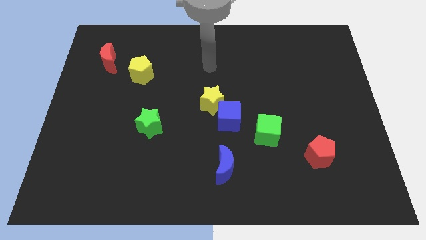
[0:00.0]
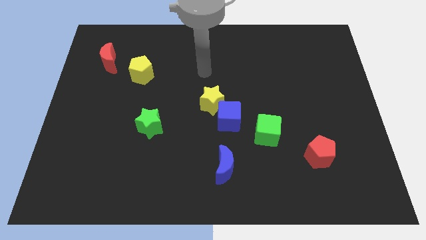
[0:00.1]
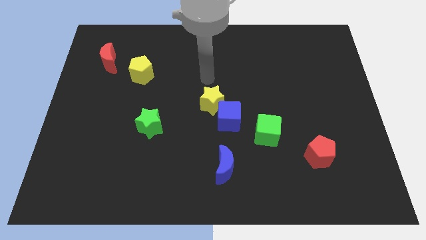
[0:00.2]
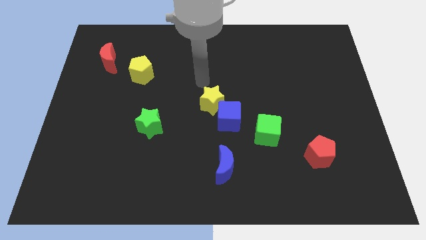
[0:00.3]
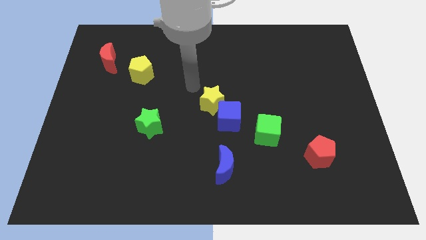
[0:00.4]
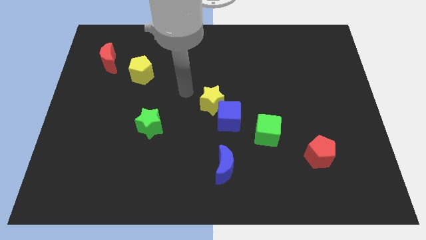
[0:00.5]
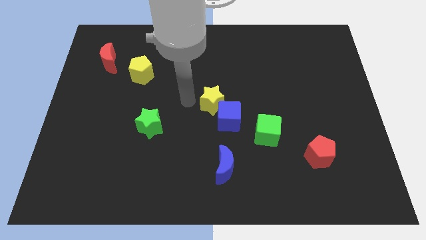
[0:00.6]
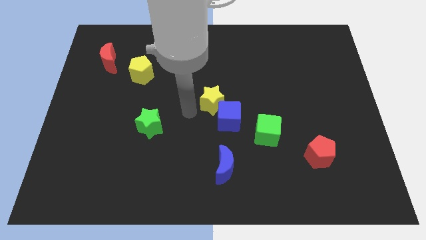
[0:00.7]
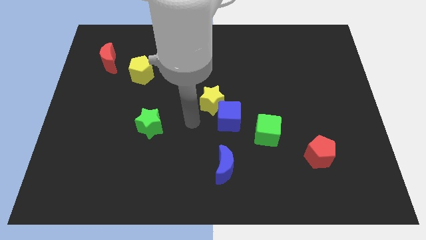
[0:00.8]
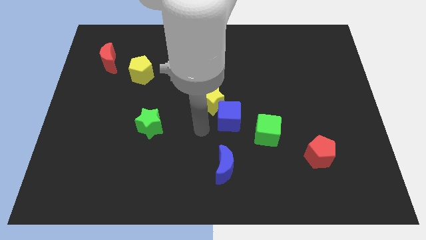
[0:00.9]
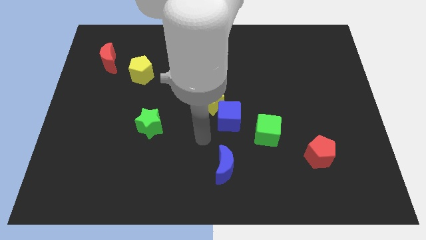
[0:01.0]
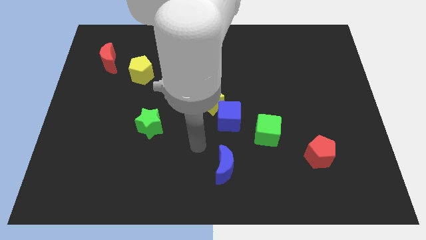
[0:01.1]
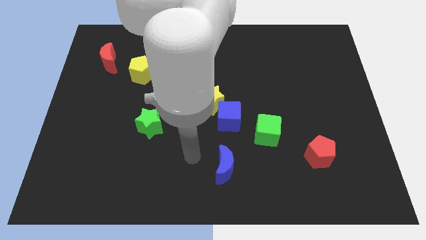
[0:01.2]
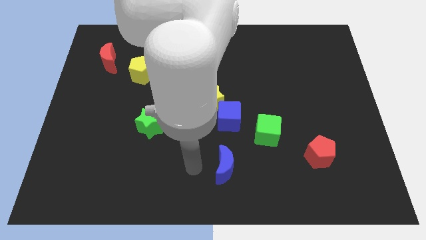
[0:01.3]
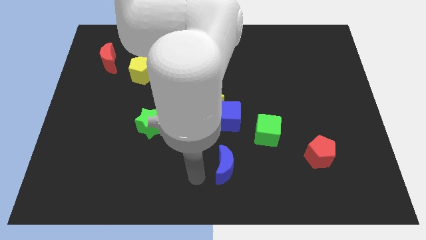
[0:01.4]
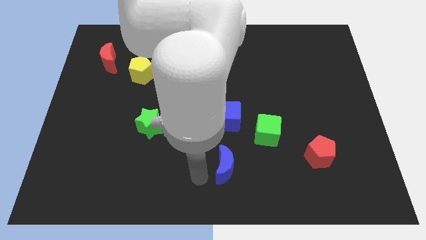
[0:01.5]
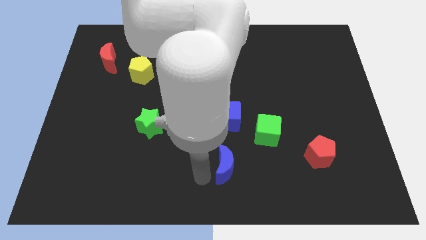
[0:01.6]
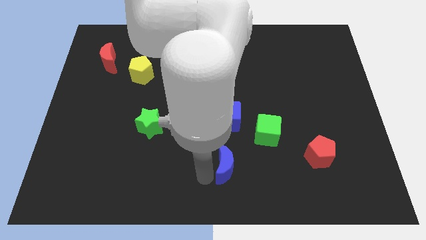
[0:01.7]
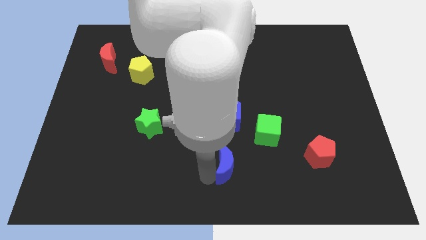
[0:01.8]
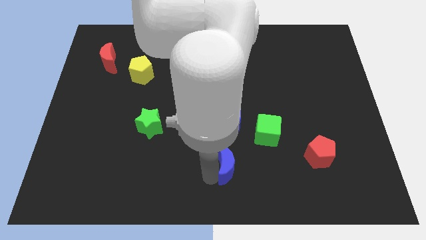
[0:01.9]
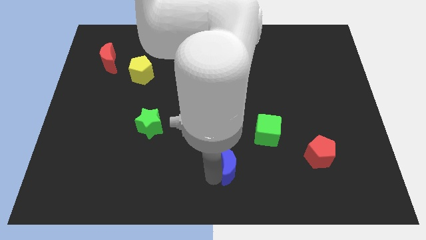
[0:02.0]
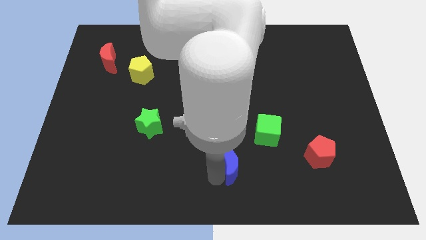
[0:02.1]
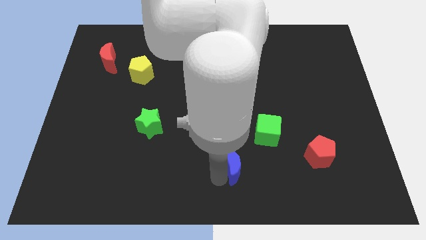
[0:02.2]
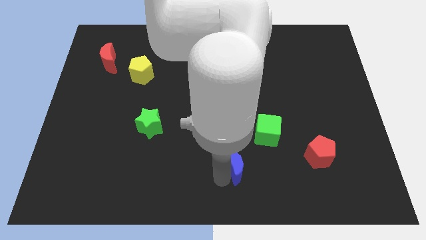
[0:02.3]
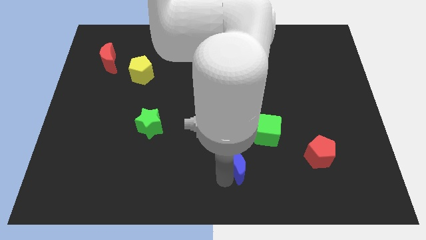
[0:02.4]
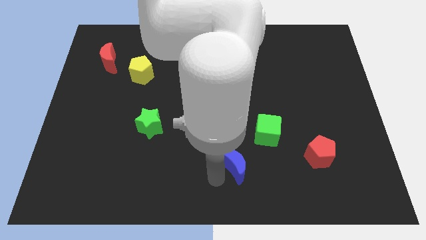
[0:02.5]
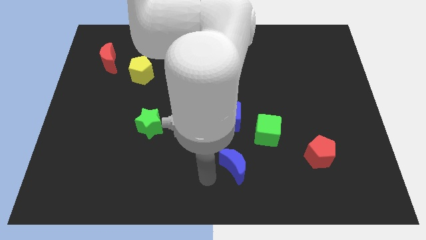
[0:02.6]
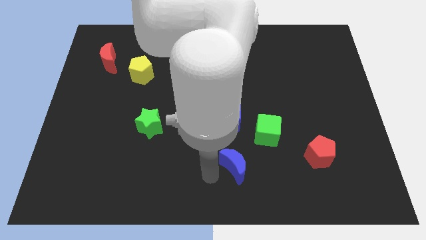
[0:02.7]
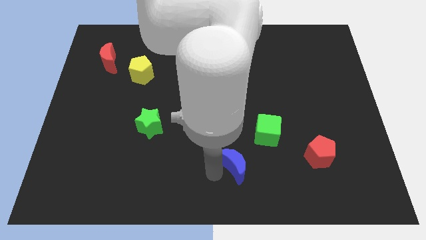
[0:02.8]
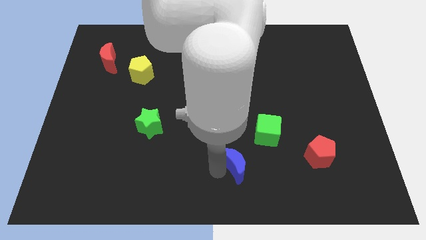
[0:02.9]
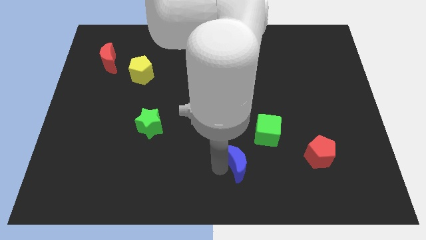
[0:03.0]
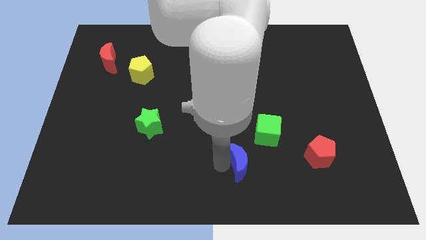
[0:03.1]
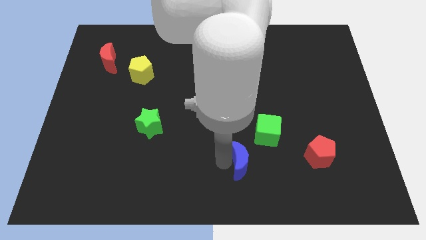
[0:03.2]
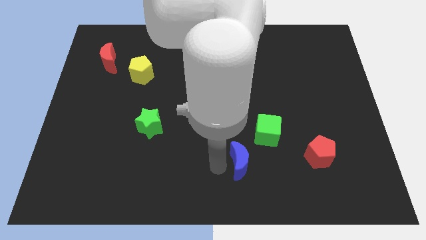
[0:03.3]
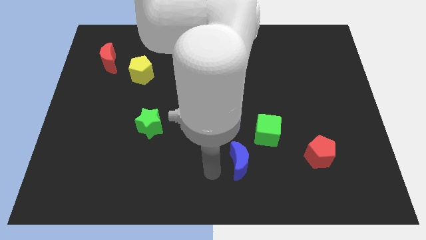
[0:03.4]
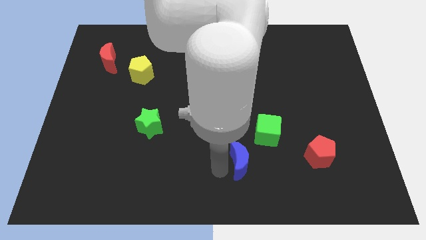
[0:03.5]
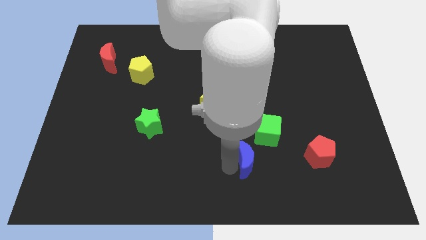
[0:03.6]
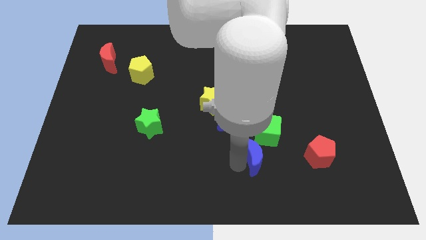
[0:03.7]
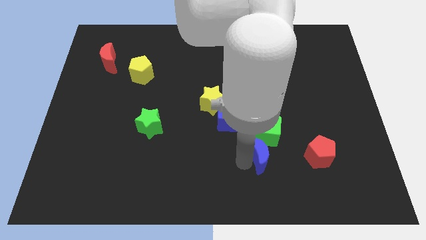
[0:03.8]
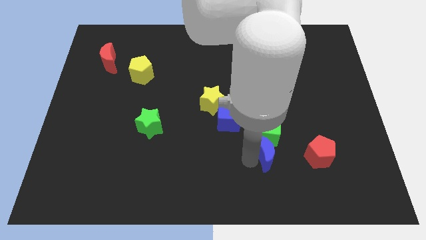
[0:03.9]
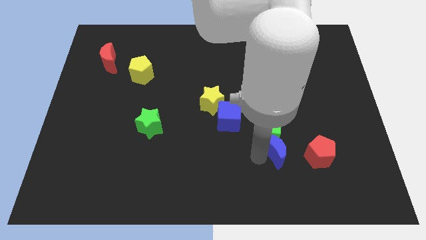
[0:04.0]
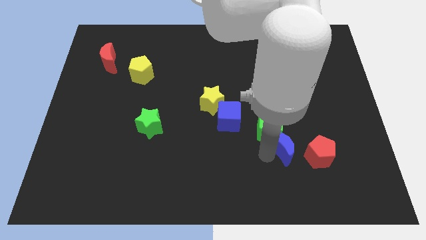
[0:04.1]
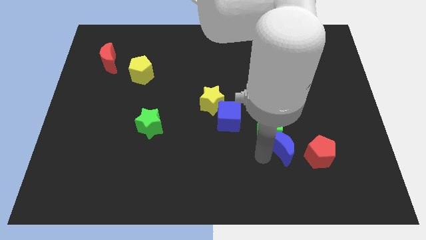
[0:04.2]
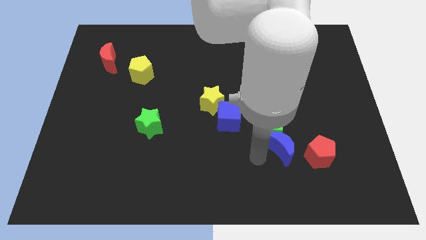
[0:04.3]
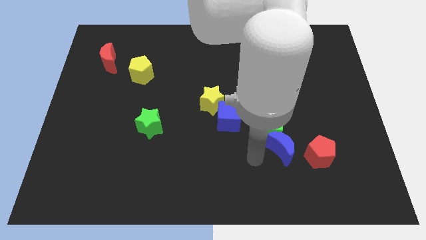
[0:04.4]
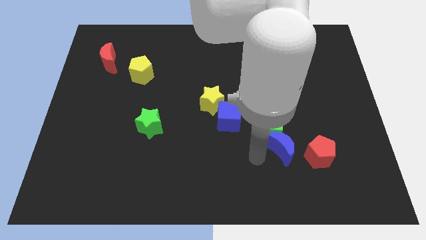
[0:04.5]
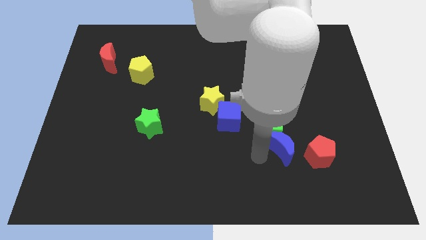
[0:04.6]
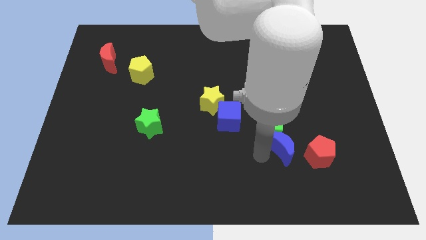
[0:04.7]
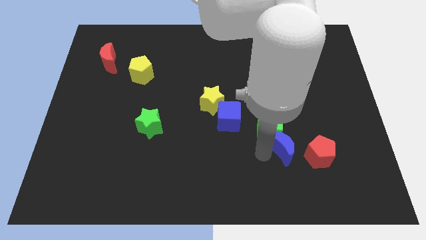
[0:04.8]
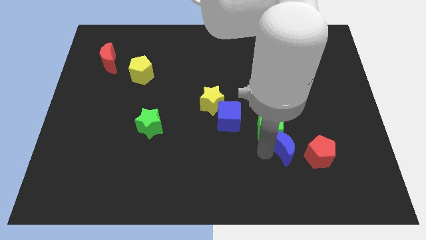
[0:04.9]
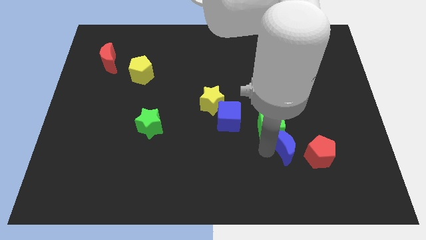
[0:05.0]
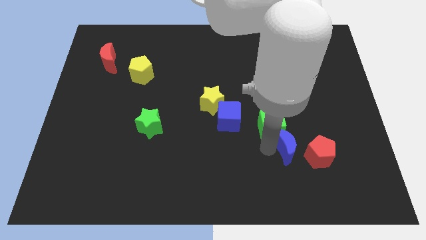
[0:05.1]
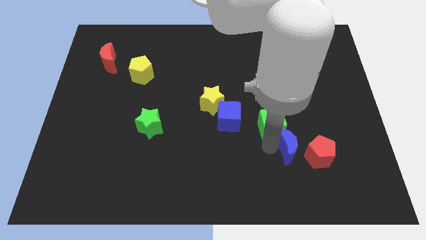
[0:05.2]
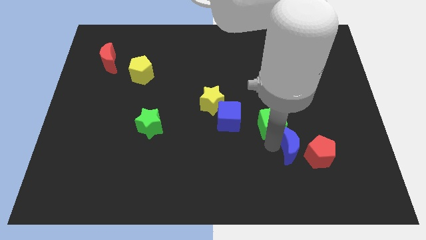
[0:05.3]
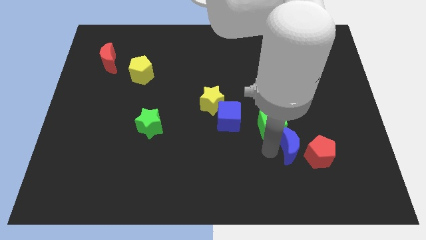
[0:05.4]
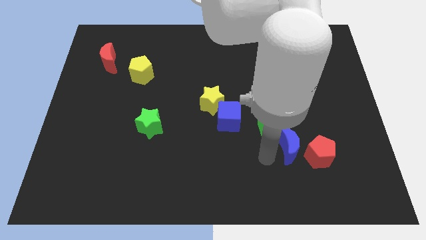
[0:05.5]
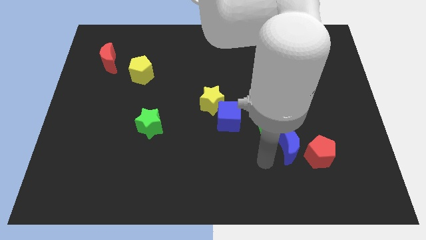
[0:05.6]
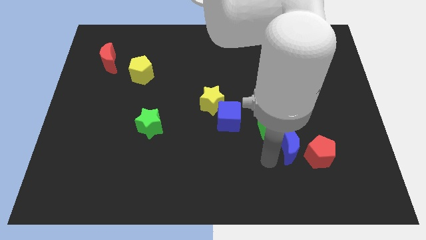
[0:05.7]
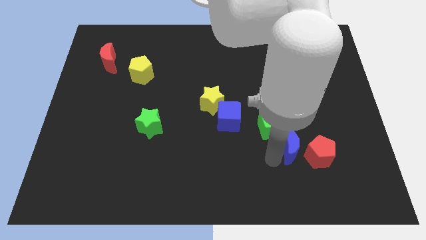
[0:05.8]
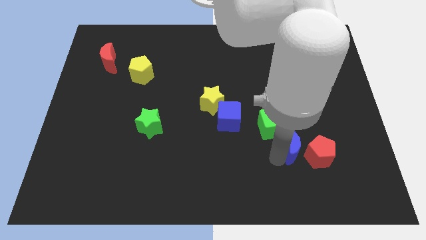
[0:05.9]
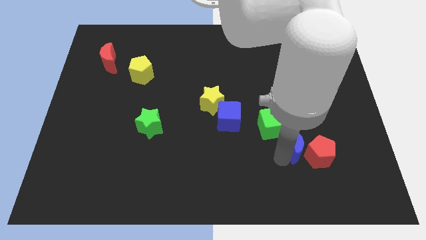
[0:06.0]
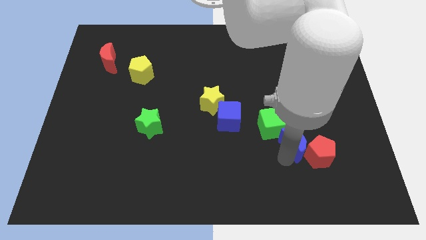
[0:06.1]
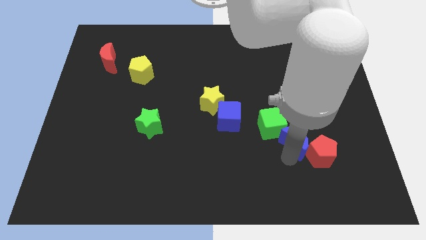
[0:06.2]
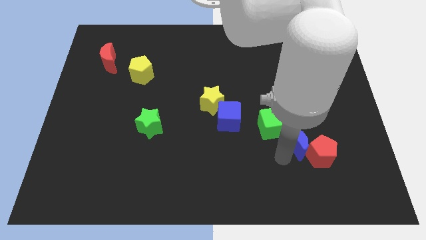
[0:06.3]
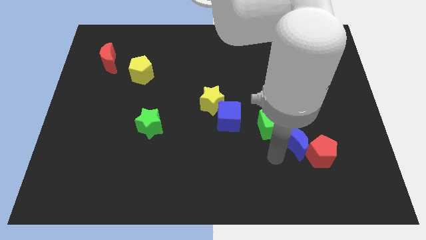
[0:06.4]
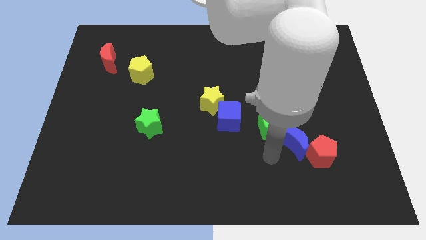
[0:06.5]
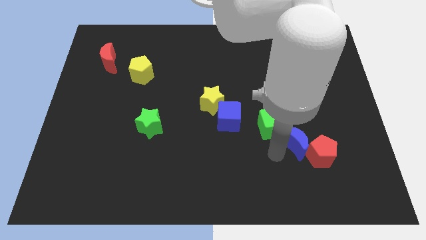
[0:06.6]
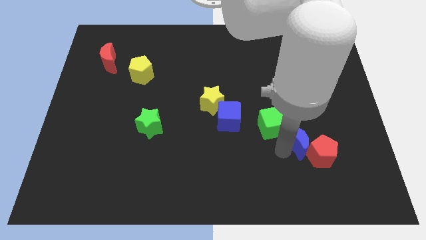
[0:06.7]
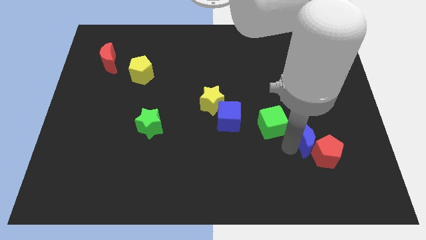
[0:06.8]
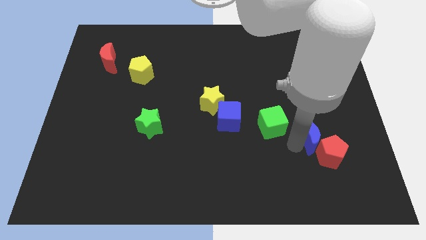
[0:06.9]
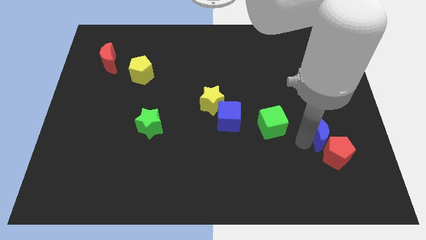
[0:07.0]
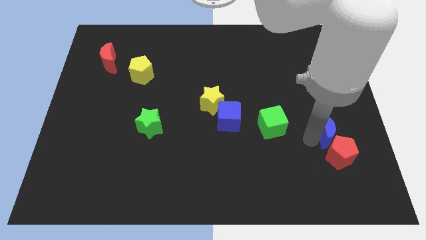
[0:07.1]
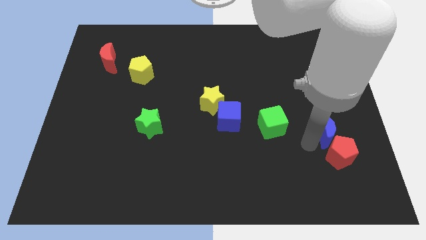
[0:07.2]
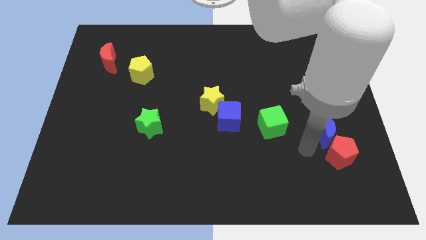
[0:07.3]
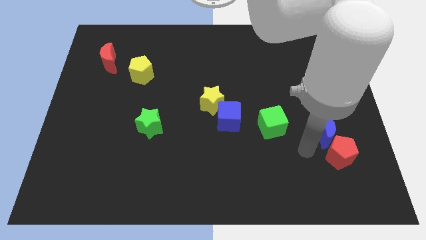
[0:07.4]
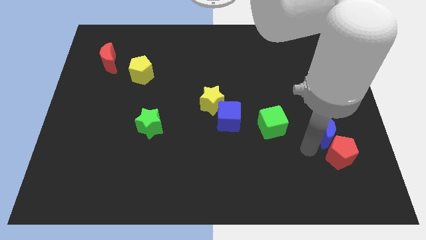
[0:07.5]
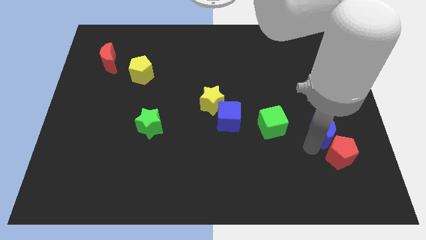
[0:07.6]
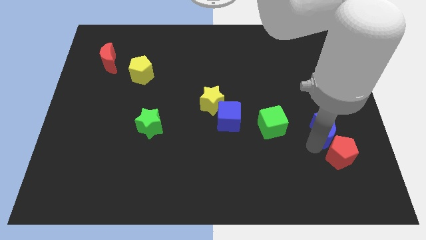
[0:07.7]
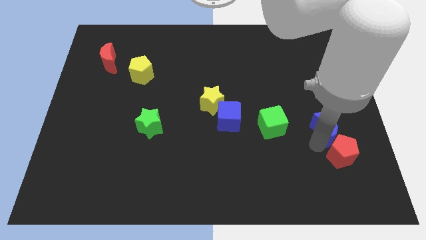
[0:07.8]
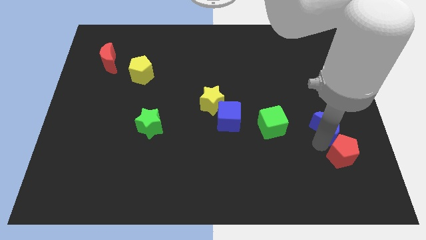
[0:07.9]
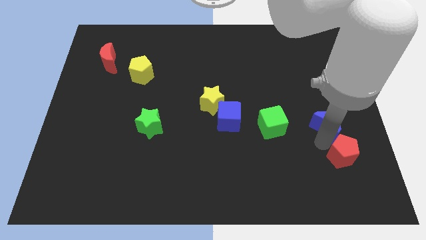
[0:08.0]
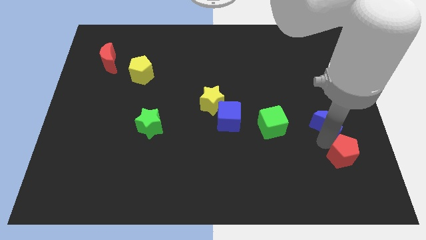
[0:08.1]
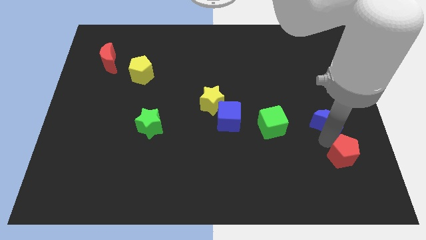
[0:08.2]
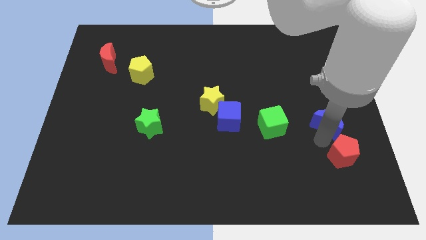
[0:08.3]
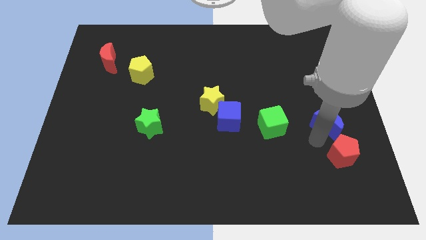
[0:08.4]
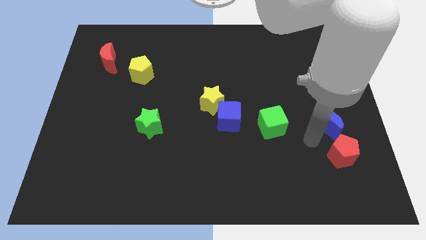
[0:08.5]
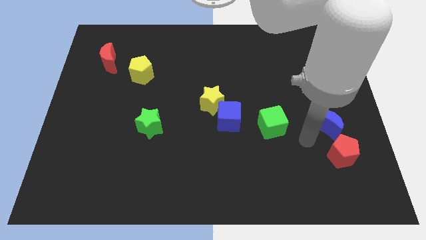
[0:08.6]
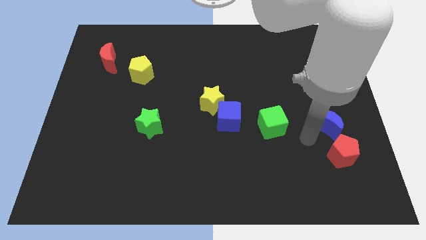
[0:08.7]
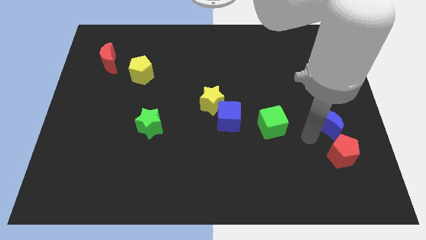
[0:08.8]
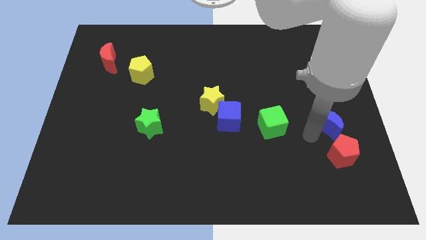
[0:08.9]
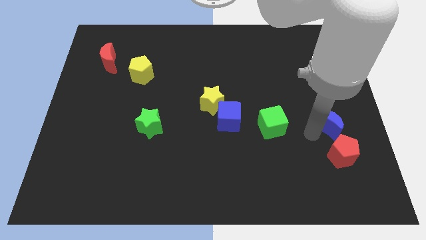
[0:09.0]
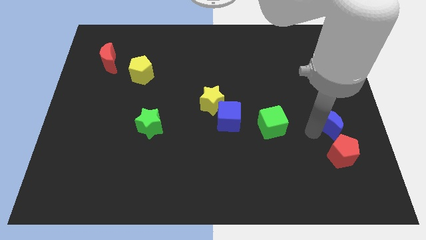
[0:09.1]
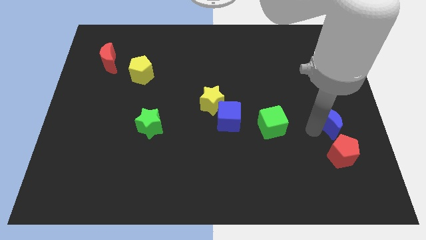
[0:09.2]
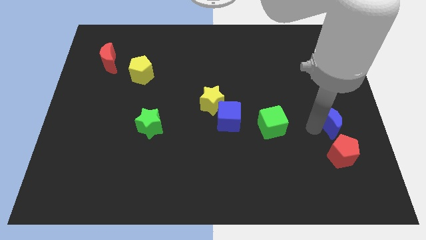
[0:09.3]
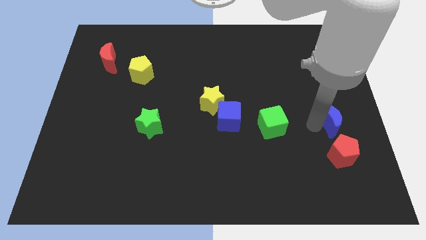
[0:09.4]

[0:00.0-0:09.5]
move the blue moon to the center right
